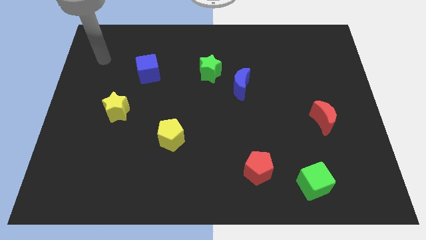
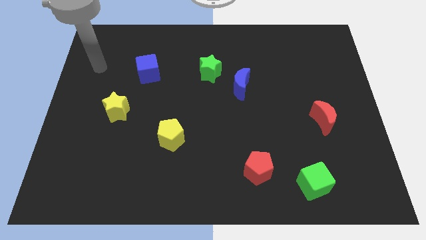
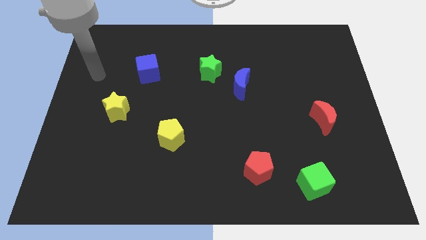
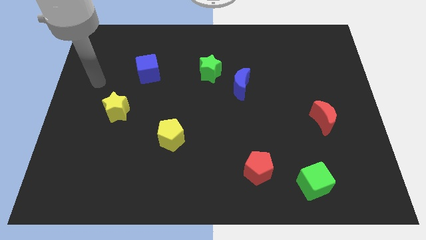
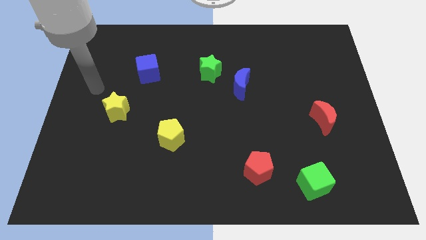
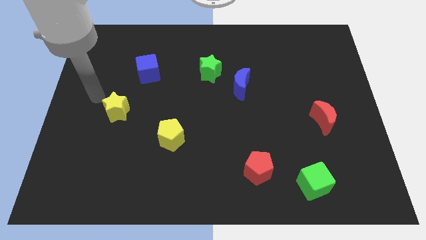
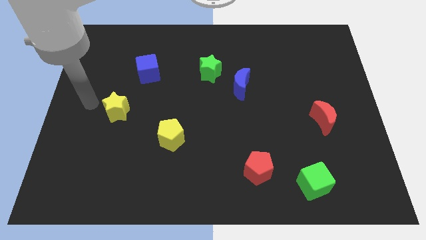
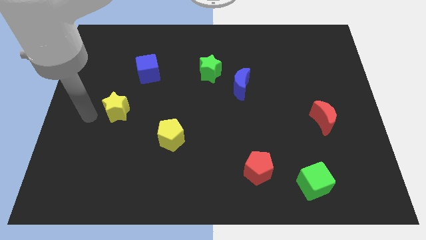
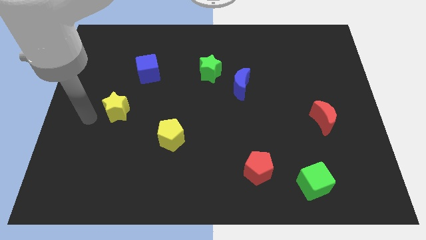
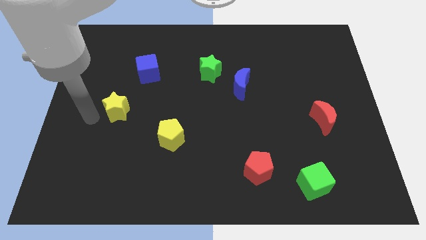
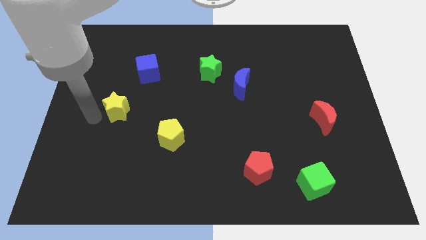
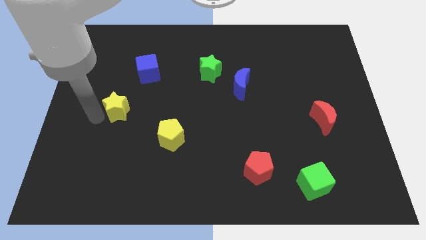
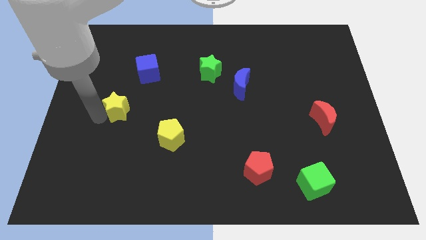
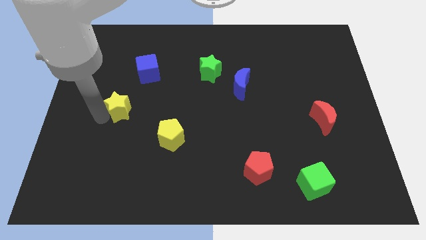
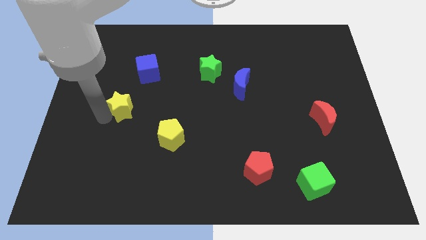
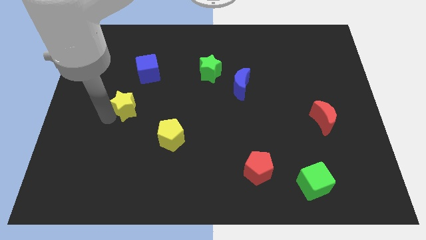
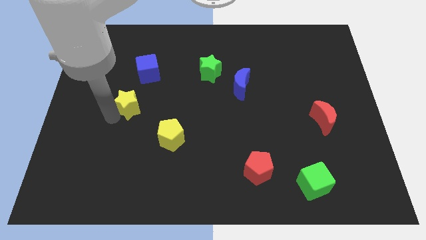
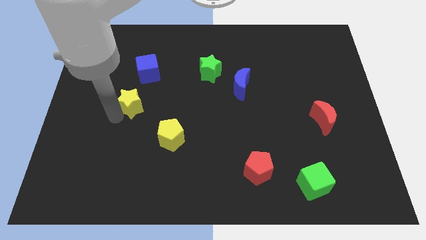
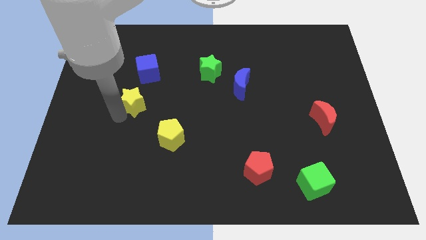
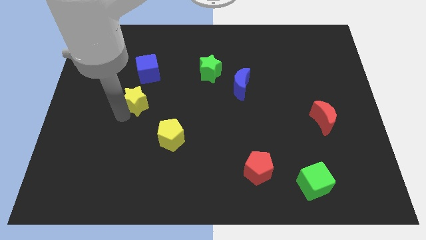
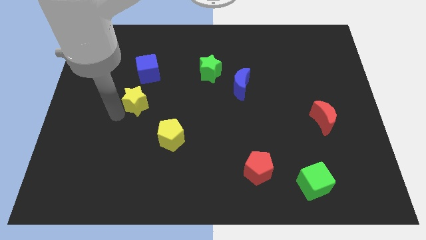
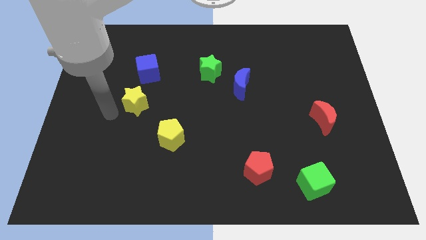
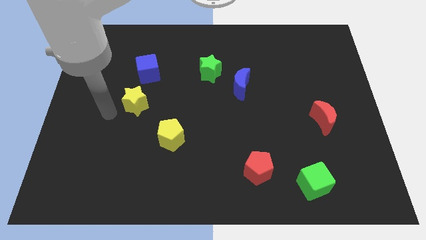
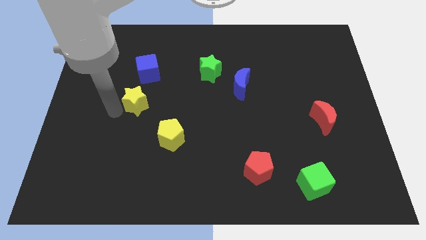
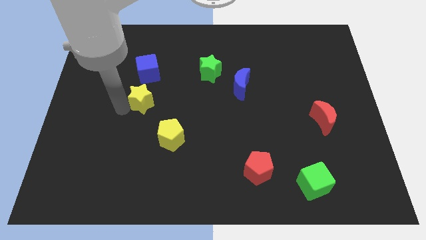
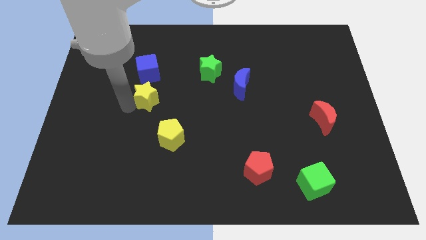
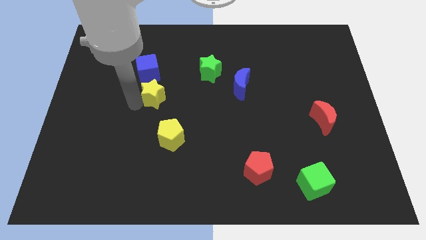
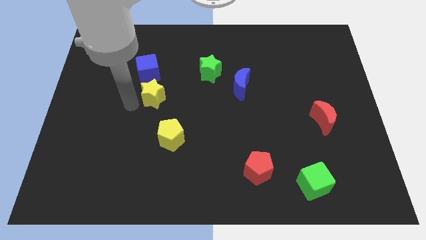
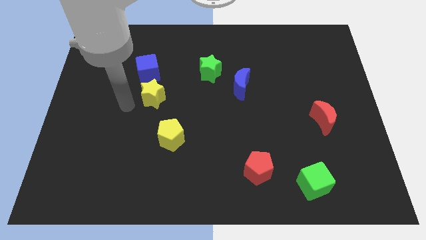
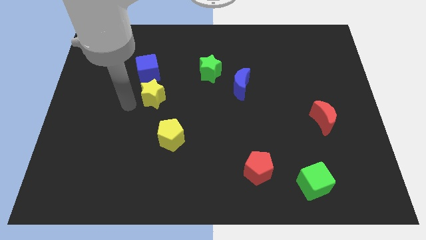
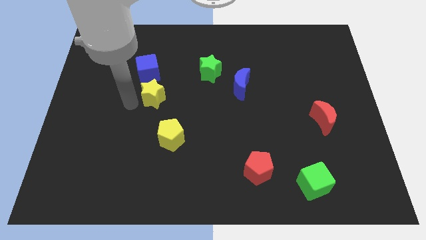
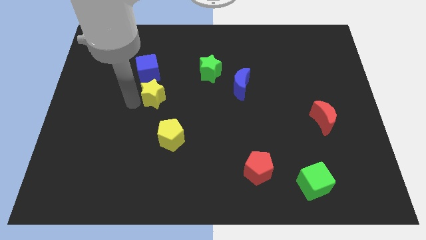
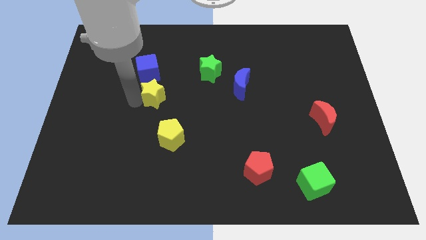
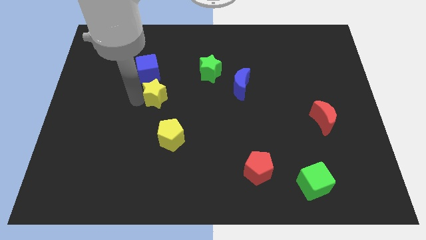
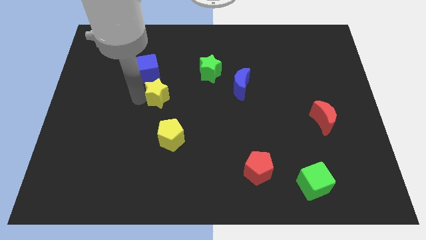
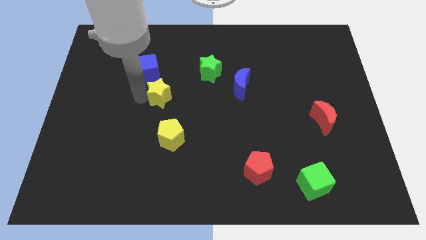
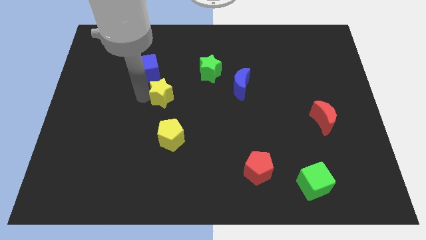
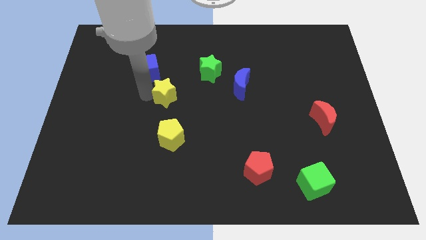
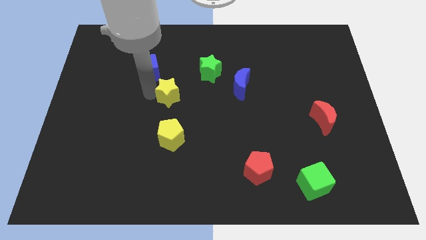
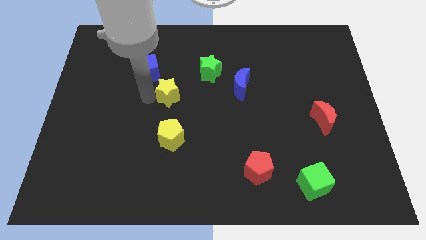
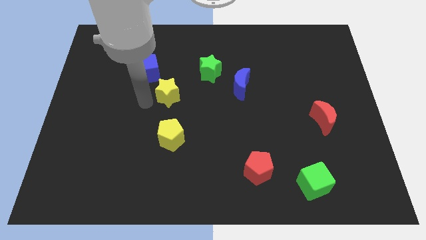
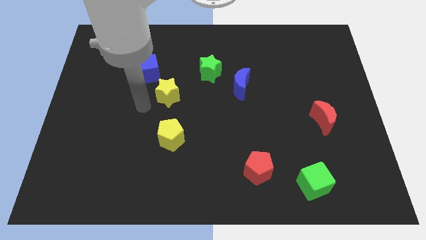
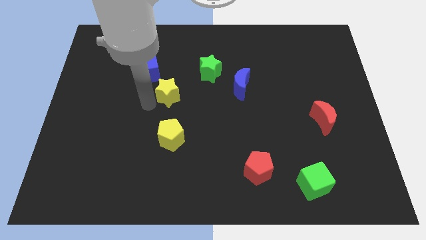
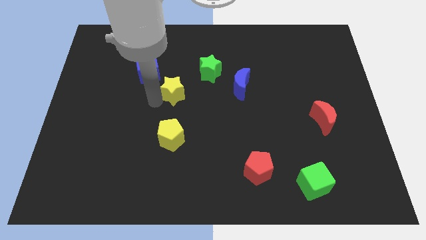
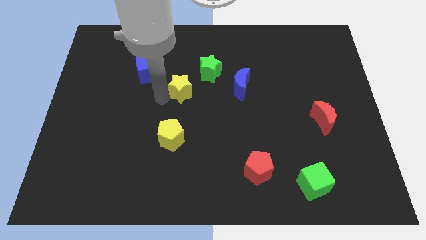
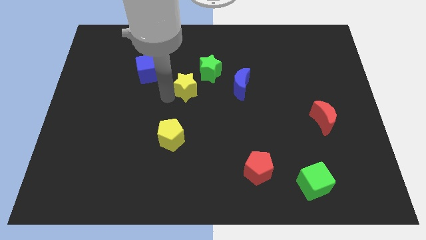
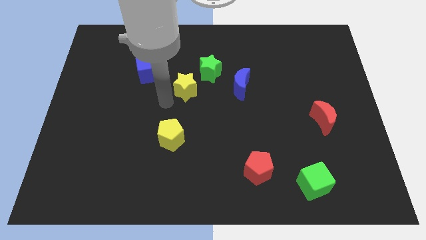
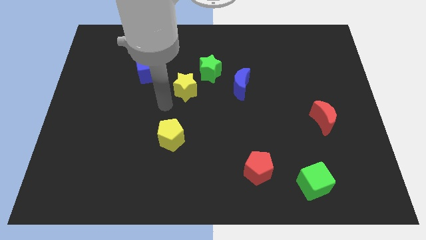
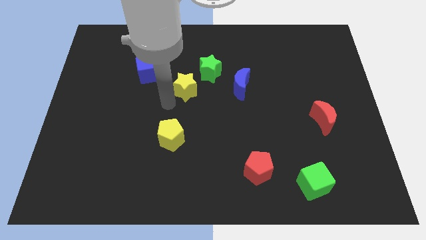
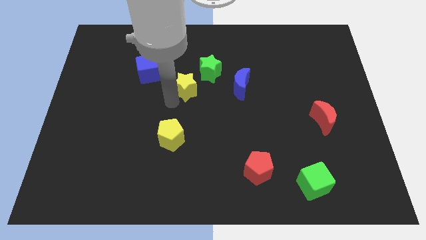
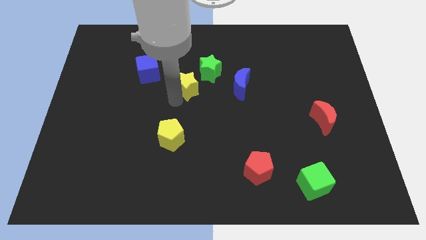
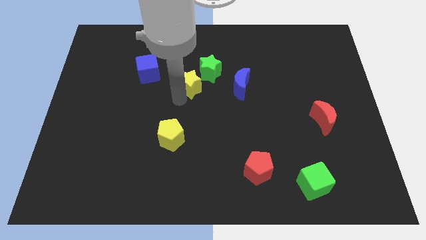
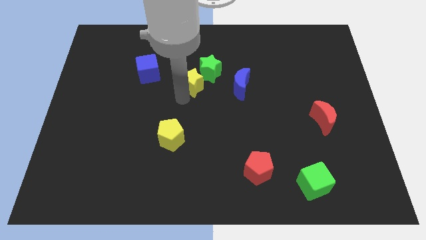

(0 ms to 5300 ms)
put the yellow star towards the green star

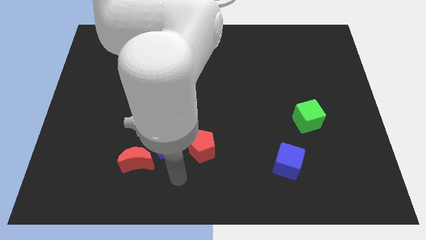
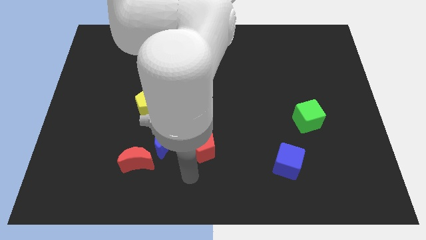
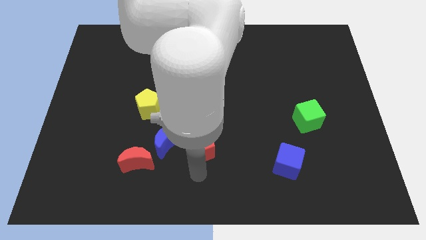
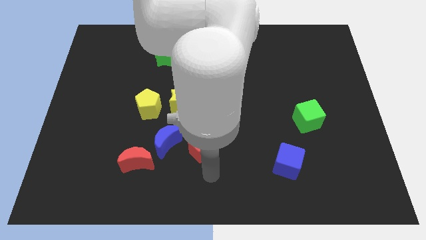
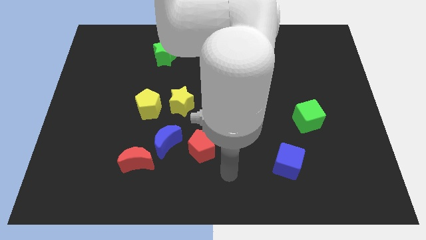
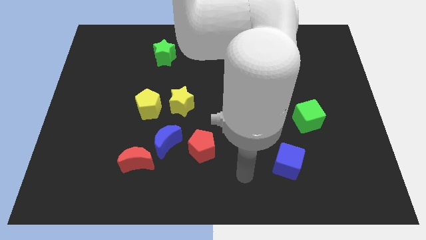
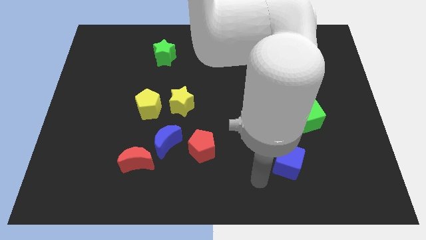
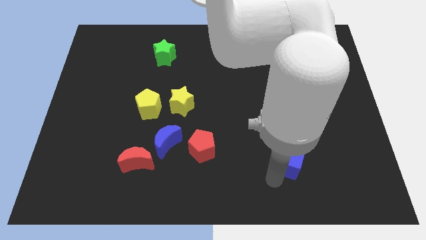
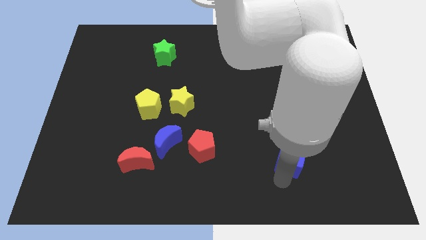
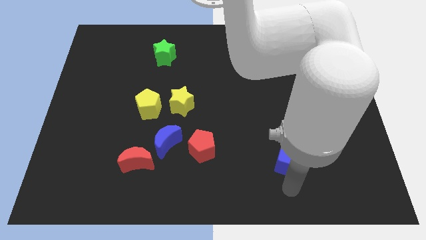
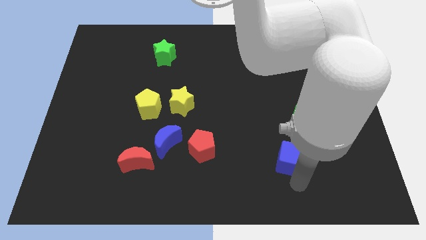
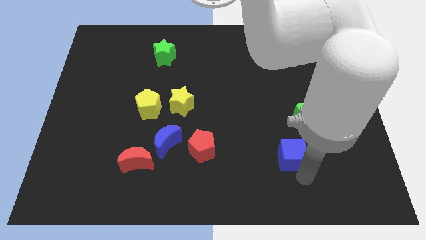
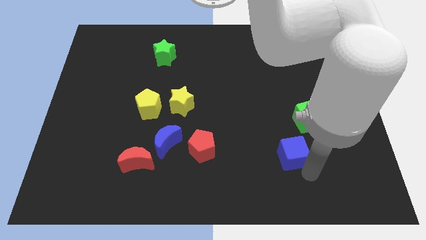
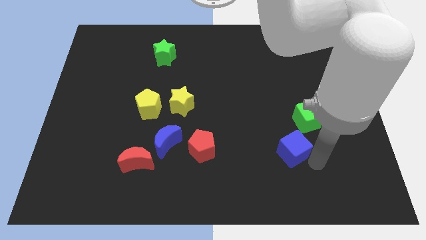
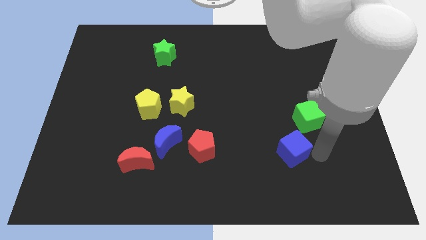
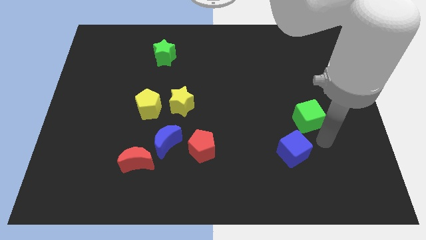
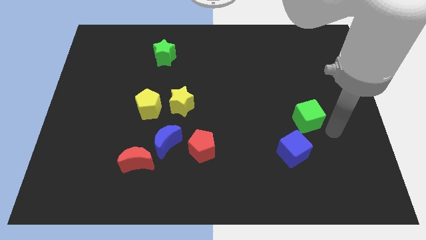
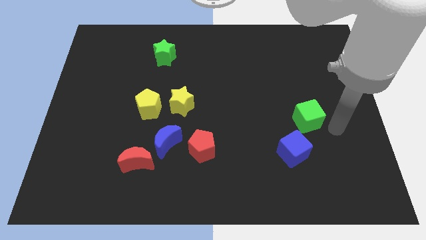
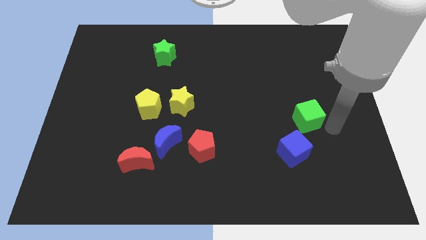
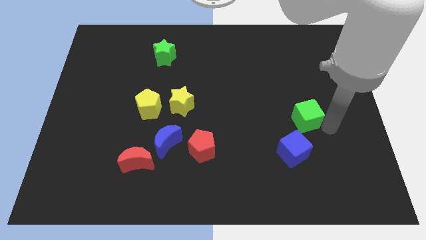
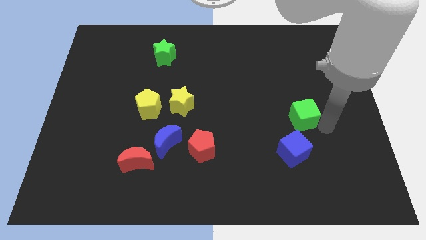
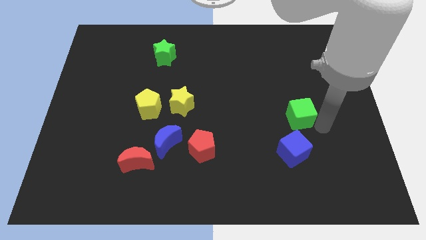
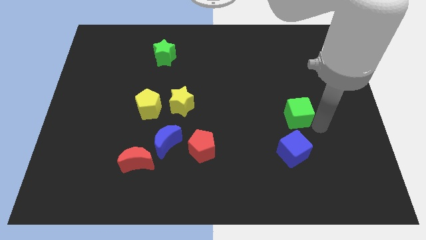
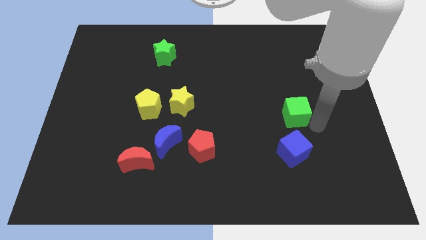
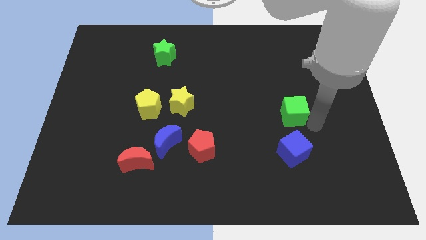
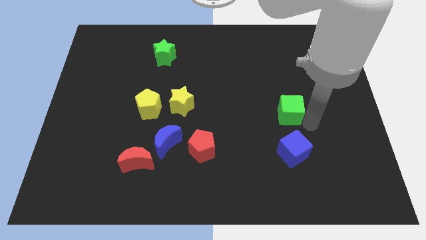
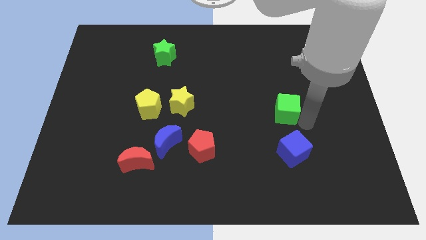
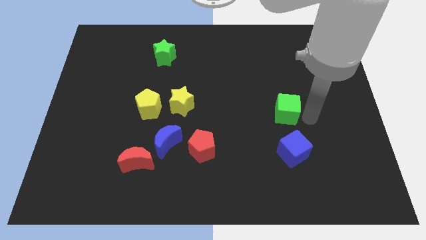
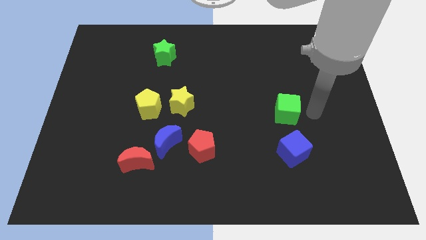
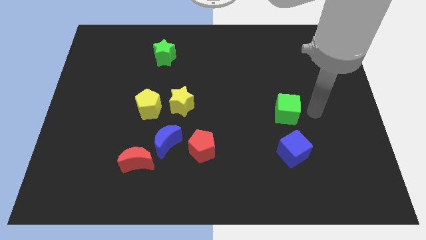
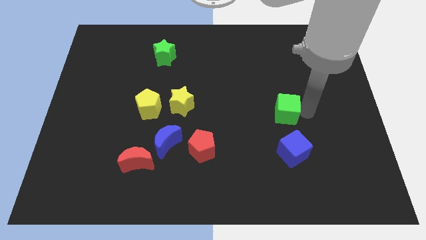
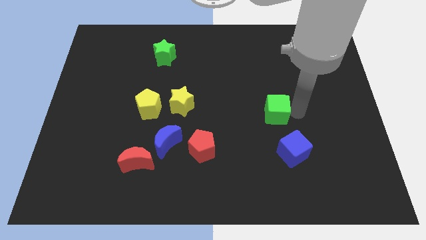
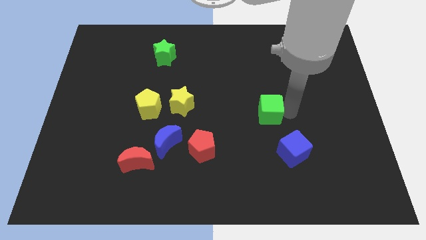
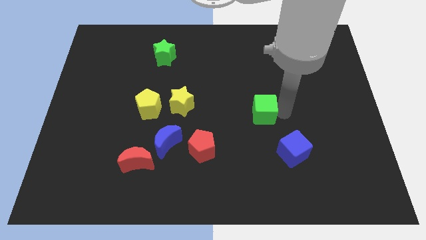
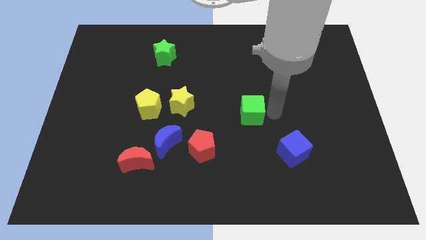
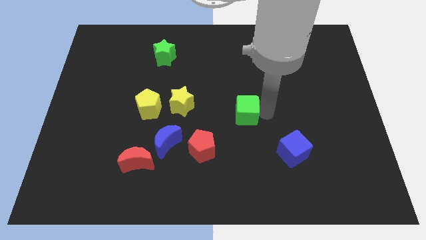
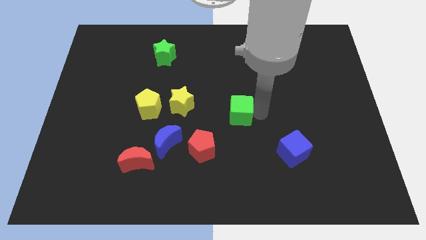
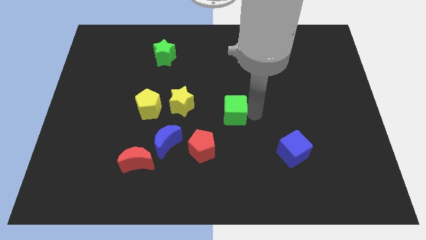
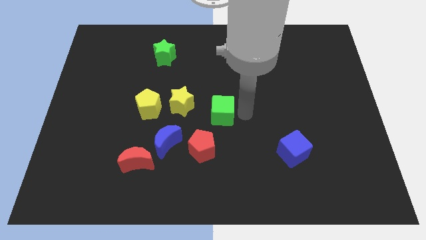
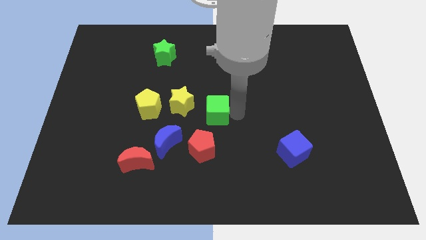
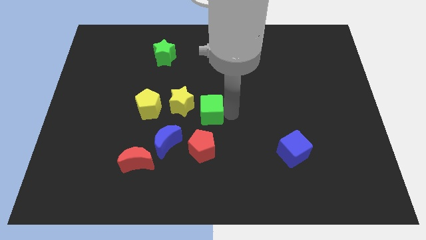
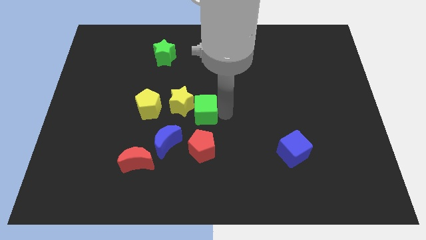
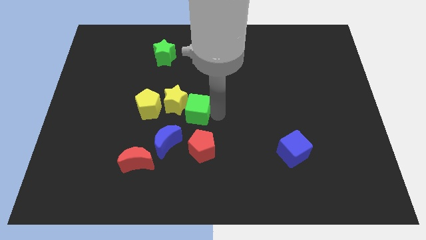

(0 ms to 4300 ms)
put the green cube towards the yellow star
